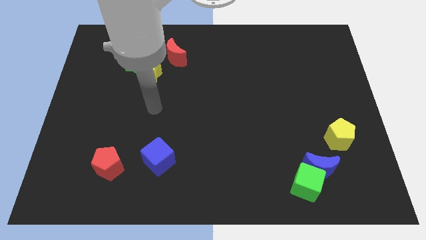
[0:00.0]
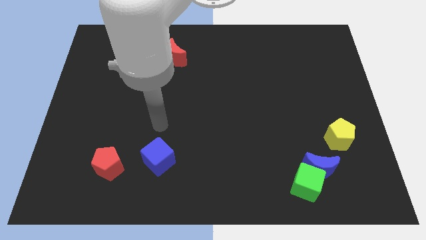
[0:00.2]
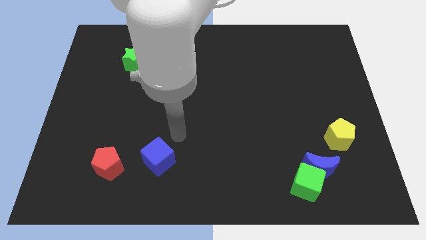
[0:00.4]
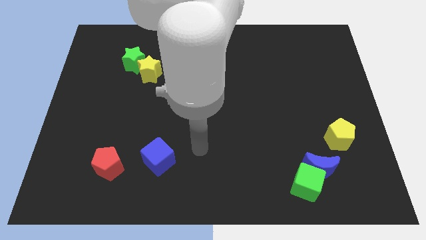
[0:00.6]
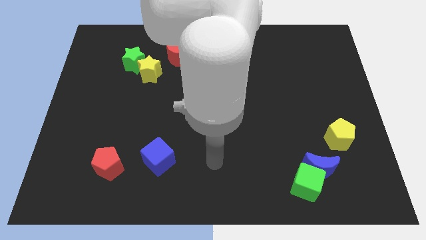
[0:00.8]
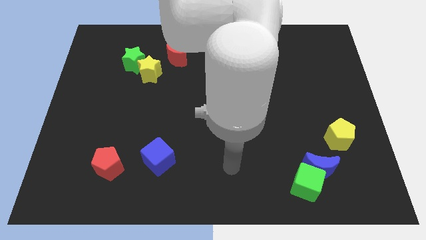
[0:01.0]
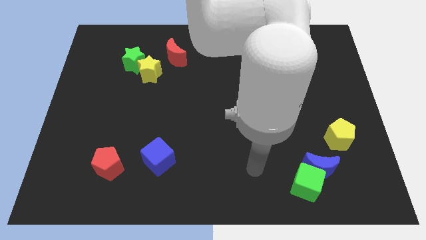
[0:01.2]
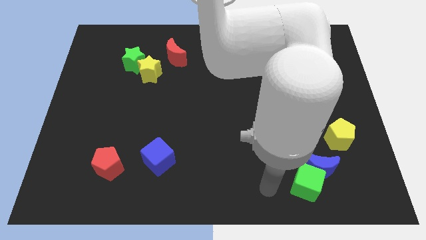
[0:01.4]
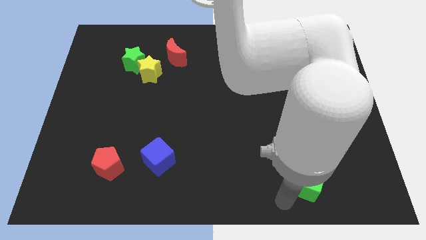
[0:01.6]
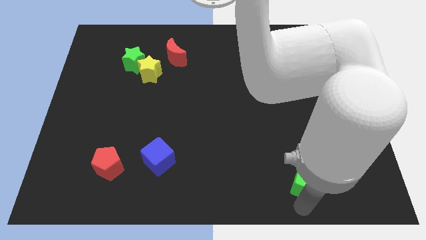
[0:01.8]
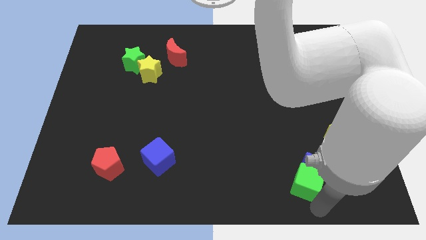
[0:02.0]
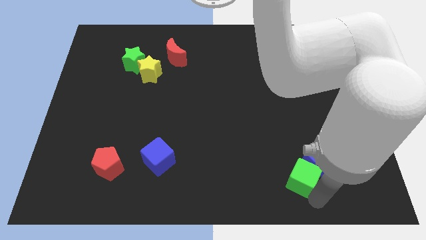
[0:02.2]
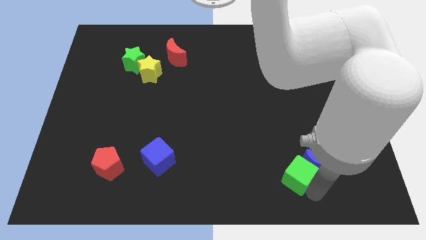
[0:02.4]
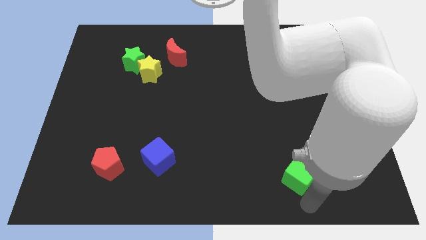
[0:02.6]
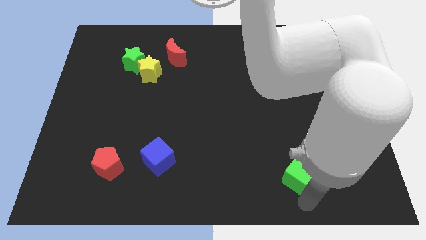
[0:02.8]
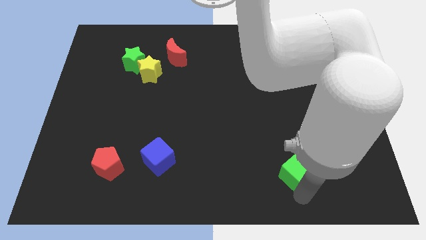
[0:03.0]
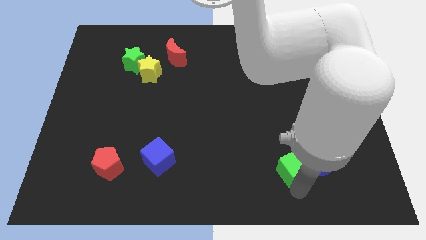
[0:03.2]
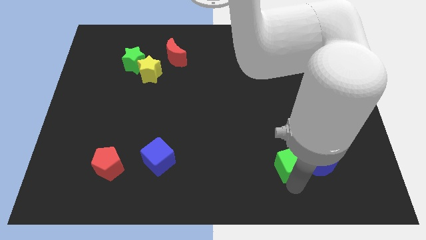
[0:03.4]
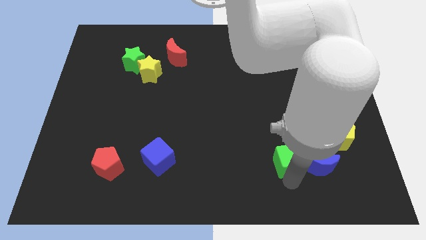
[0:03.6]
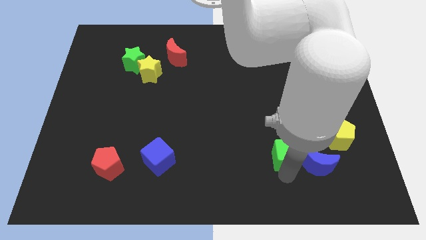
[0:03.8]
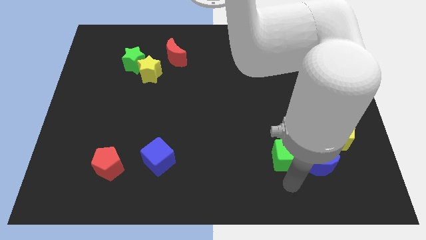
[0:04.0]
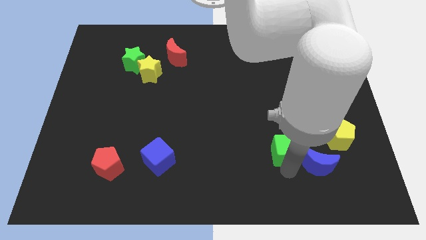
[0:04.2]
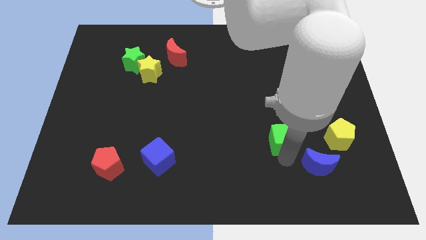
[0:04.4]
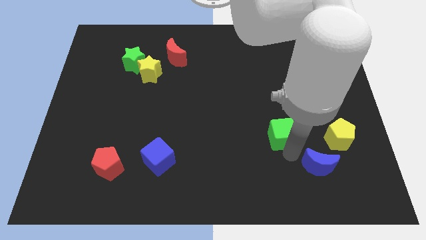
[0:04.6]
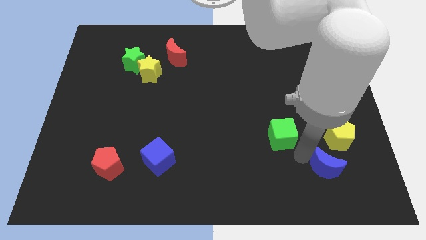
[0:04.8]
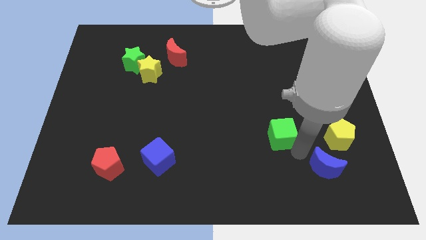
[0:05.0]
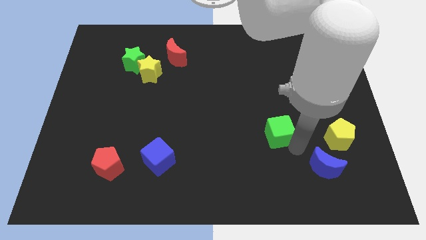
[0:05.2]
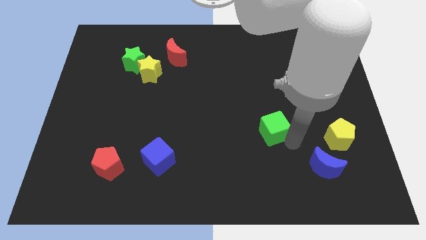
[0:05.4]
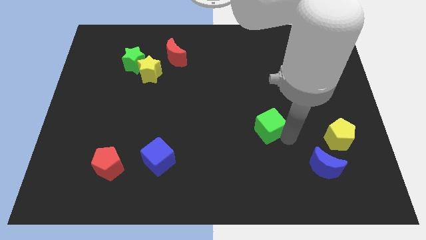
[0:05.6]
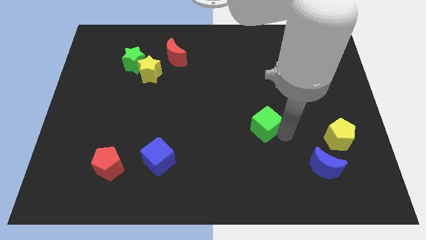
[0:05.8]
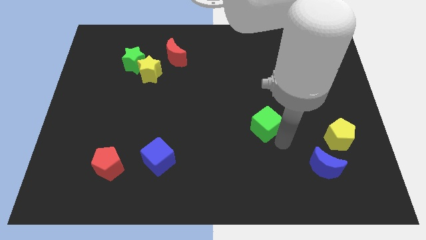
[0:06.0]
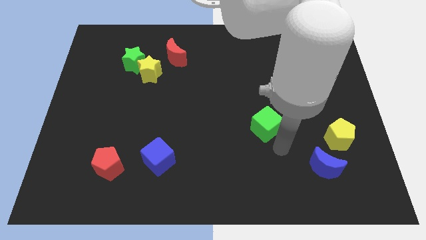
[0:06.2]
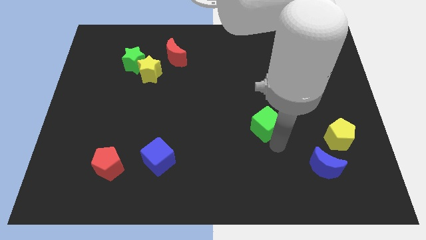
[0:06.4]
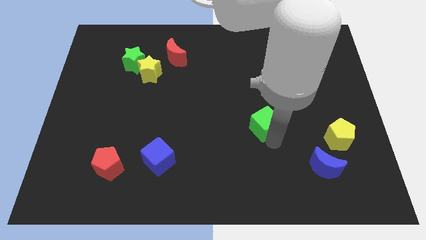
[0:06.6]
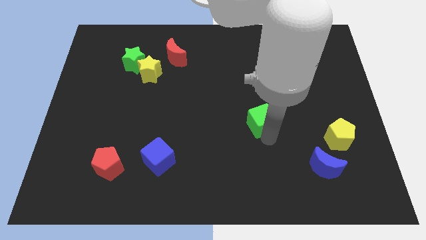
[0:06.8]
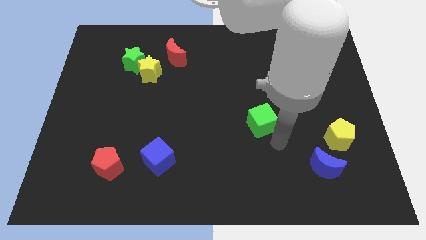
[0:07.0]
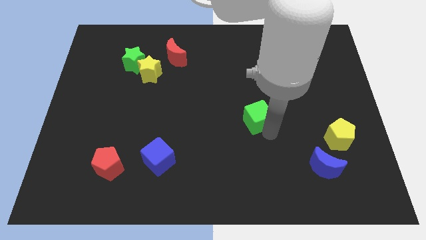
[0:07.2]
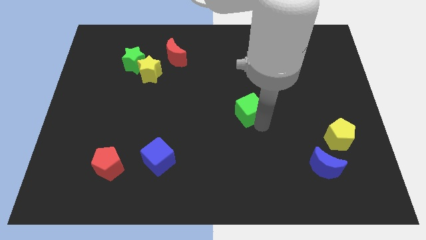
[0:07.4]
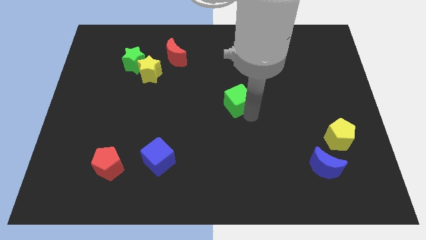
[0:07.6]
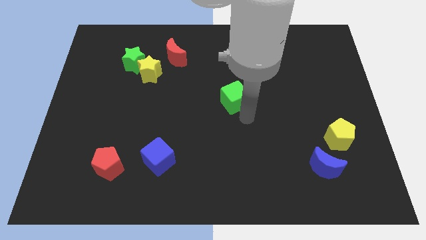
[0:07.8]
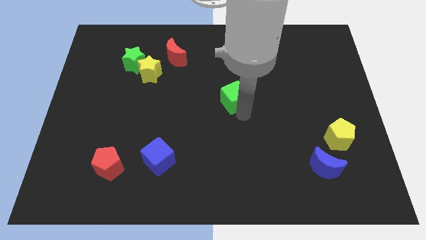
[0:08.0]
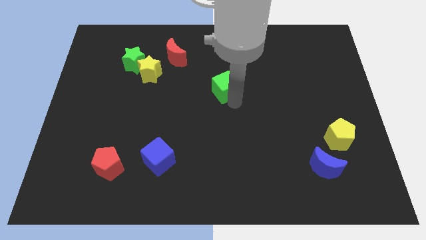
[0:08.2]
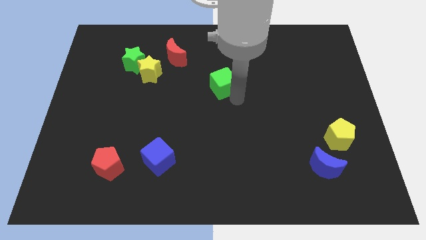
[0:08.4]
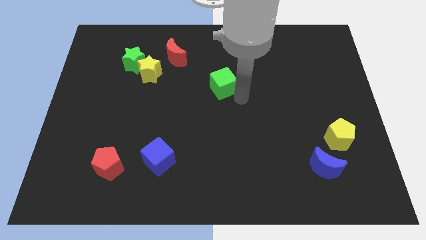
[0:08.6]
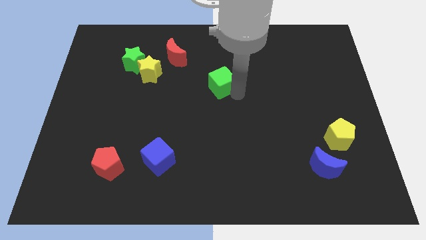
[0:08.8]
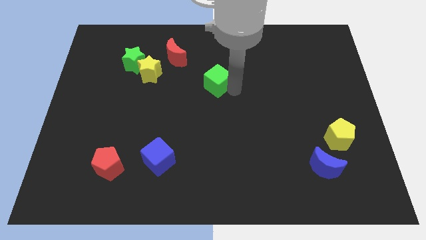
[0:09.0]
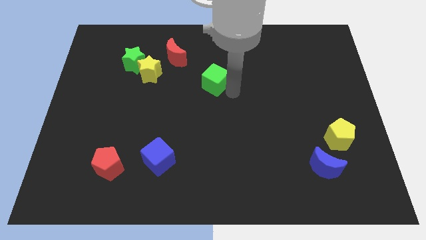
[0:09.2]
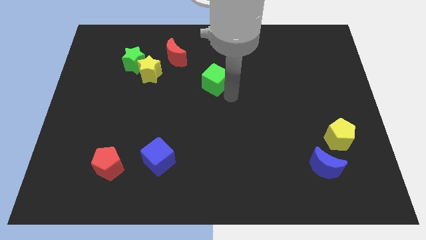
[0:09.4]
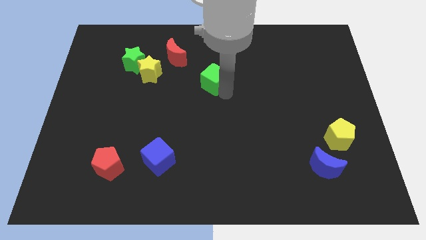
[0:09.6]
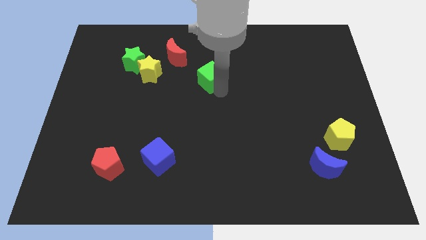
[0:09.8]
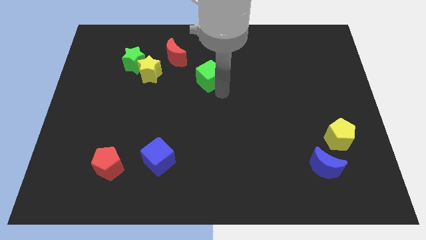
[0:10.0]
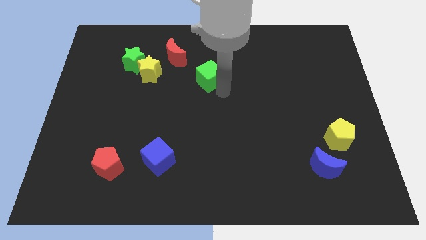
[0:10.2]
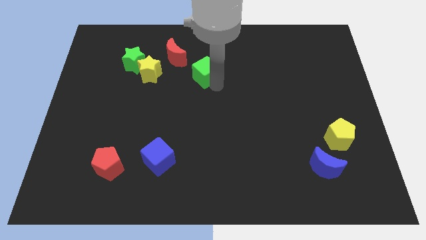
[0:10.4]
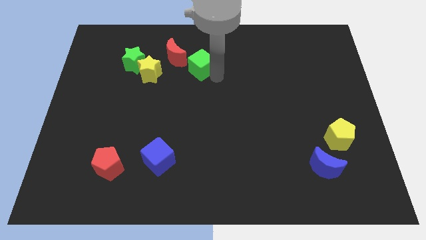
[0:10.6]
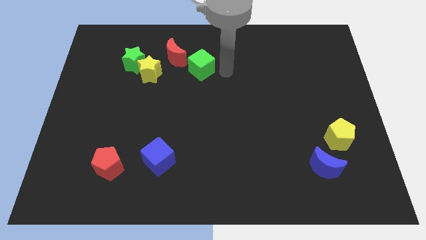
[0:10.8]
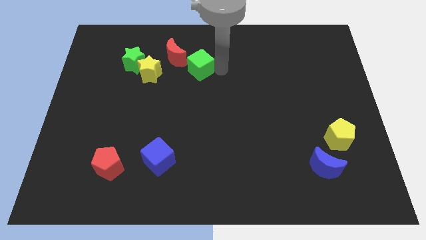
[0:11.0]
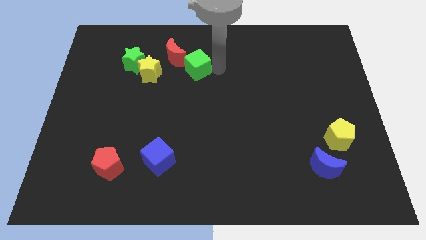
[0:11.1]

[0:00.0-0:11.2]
move the green cube to the right of the green star

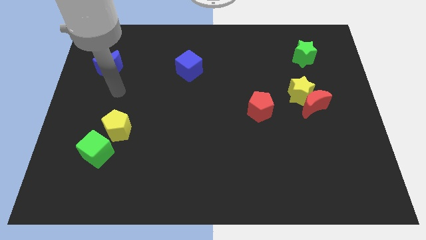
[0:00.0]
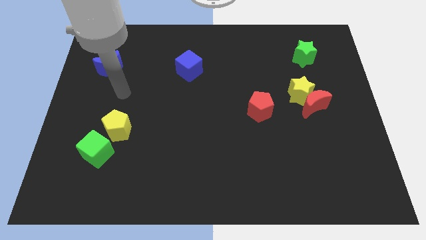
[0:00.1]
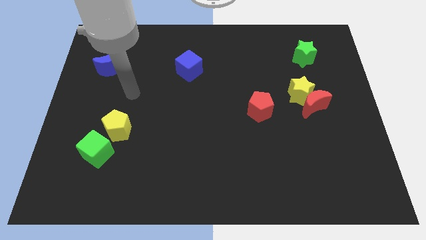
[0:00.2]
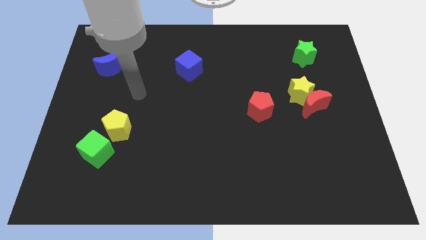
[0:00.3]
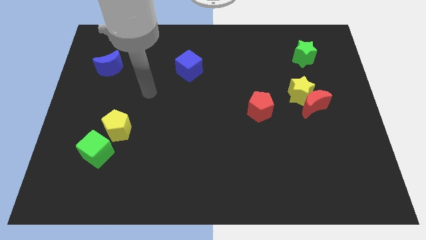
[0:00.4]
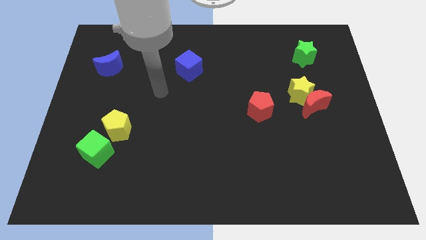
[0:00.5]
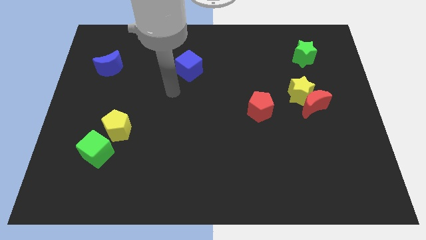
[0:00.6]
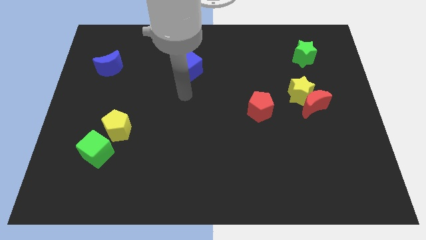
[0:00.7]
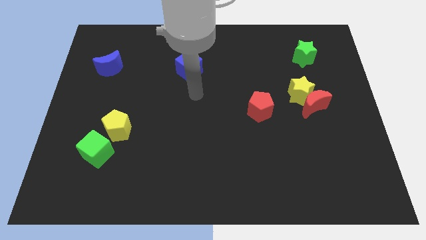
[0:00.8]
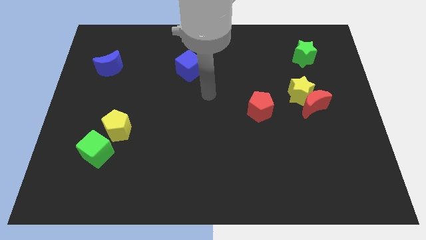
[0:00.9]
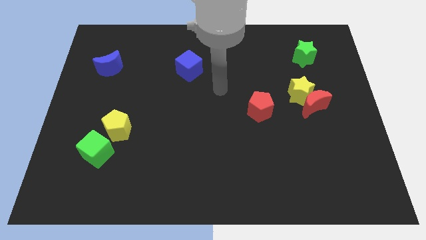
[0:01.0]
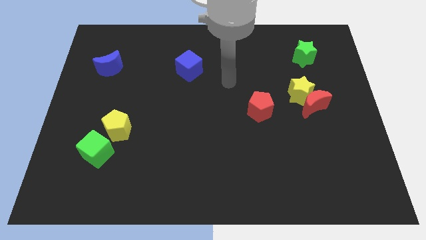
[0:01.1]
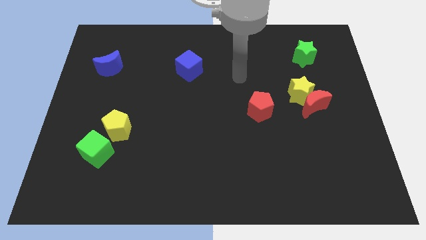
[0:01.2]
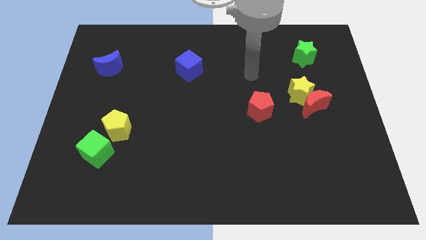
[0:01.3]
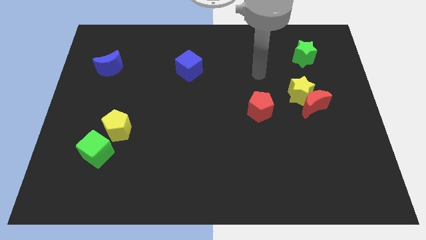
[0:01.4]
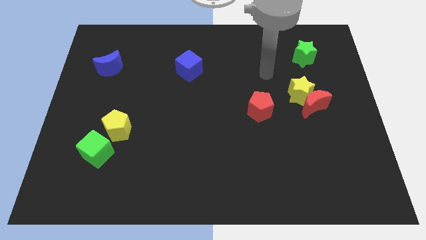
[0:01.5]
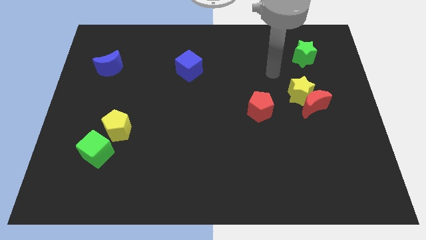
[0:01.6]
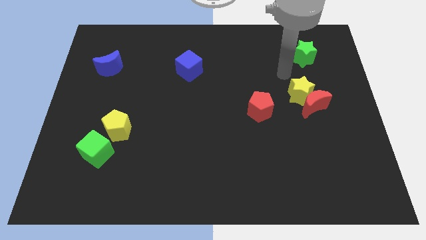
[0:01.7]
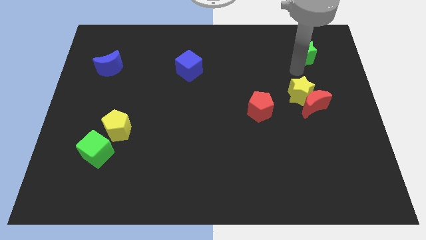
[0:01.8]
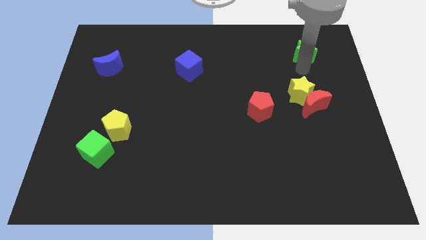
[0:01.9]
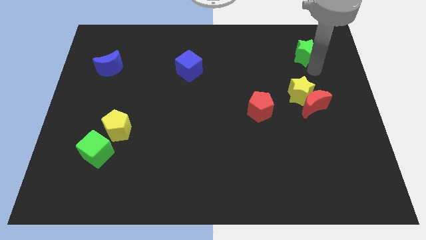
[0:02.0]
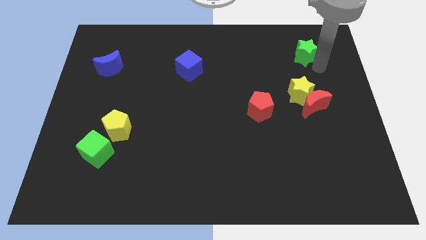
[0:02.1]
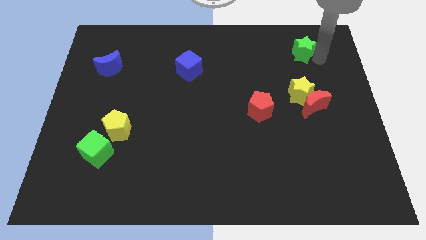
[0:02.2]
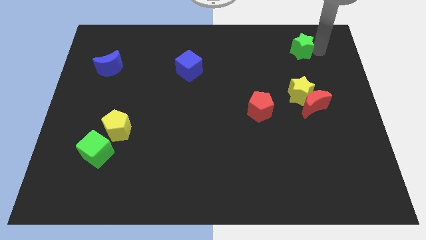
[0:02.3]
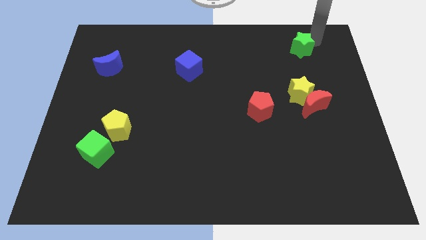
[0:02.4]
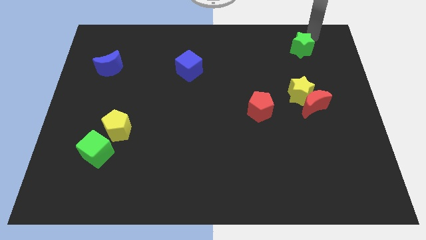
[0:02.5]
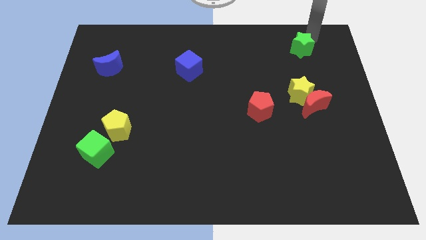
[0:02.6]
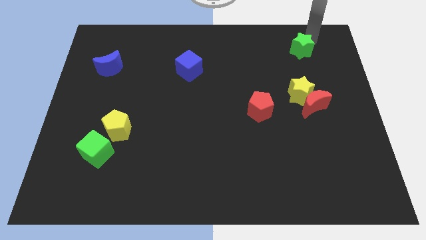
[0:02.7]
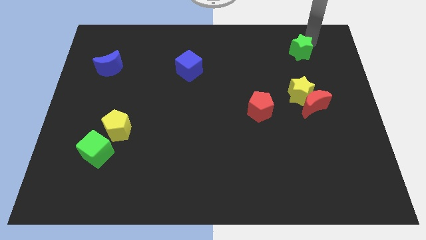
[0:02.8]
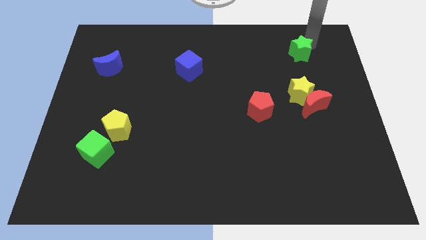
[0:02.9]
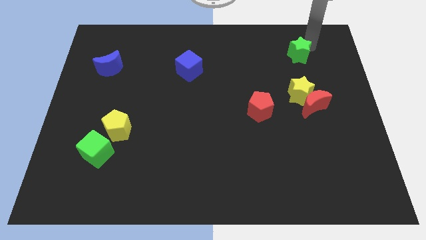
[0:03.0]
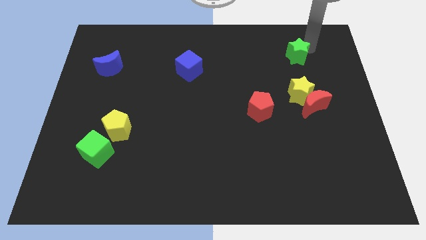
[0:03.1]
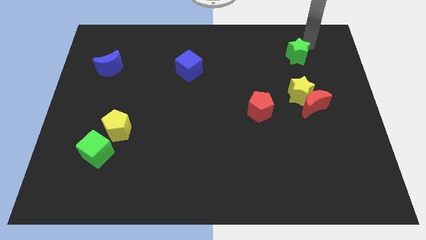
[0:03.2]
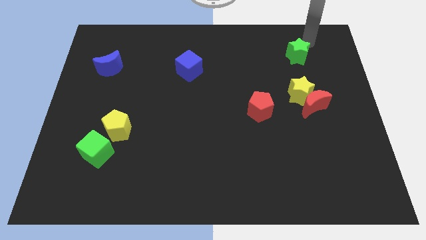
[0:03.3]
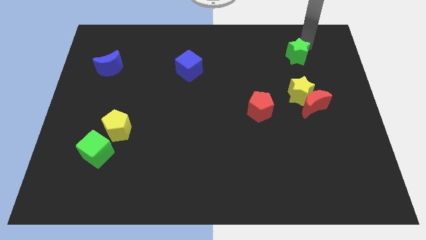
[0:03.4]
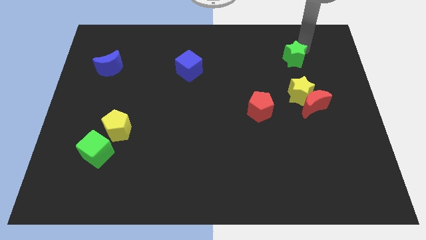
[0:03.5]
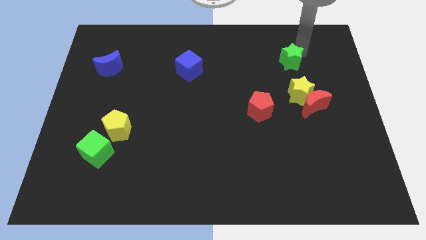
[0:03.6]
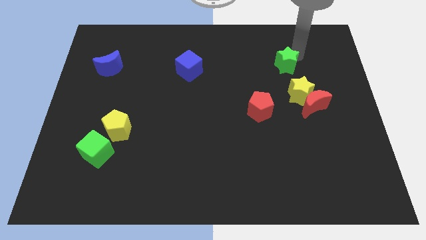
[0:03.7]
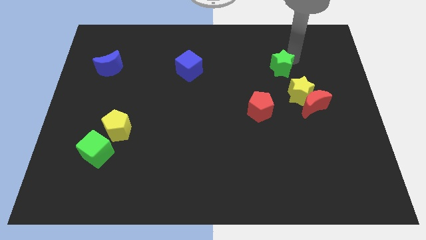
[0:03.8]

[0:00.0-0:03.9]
put the green star diagonally up and to the left of the yellow star
